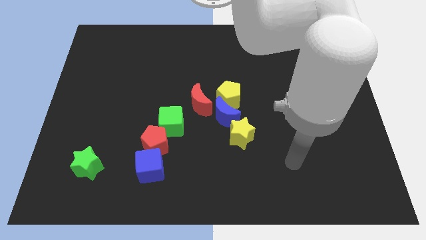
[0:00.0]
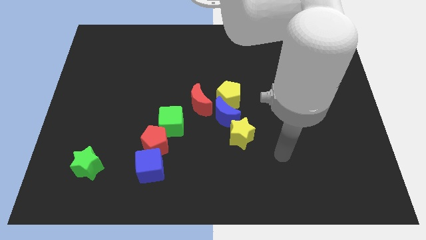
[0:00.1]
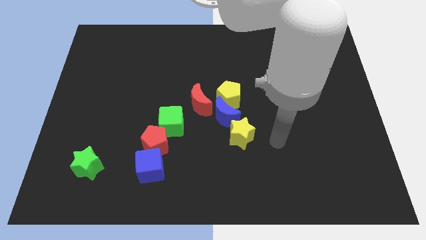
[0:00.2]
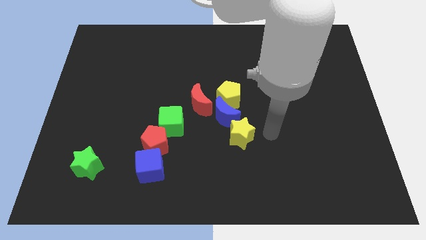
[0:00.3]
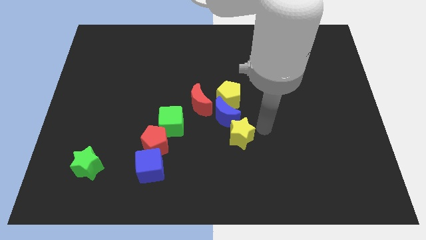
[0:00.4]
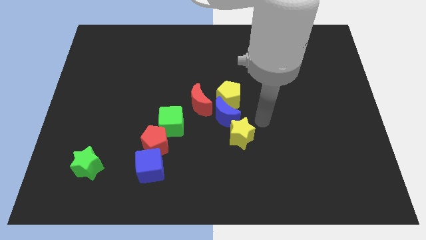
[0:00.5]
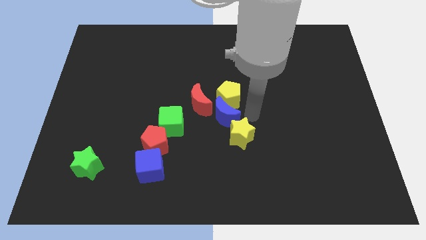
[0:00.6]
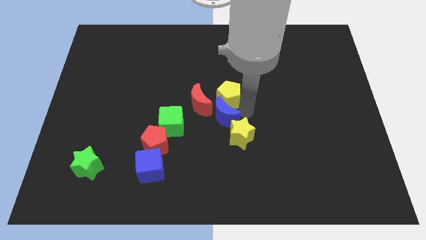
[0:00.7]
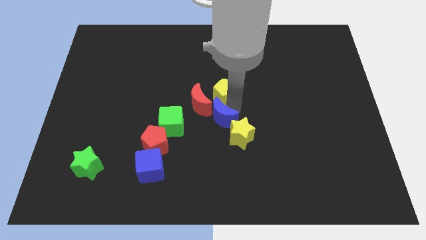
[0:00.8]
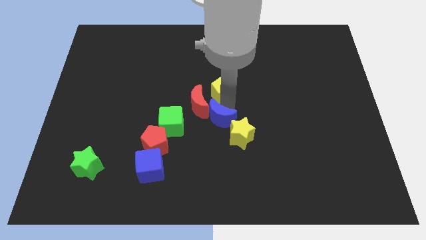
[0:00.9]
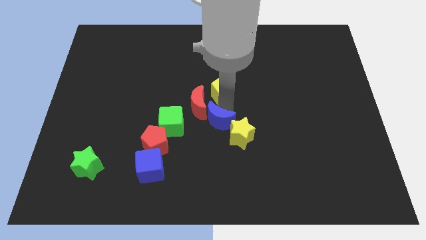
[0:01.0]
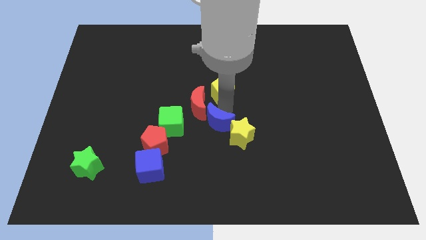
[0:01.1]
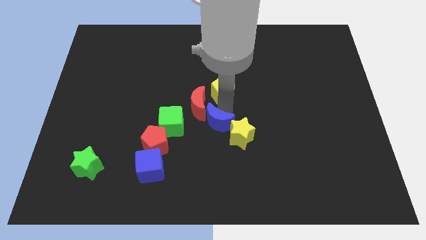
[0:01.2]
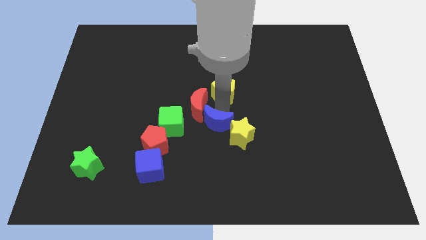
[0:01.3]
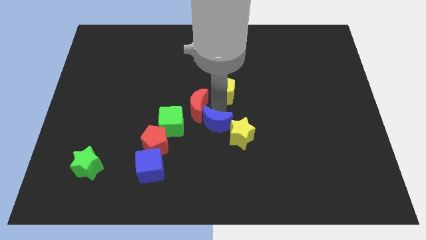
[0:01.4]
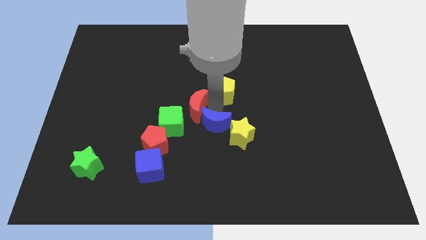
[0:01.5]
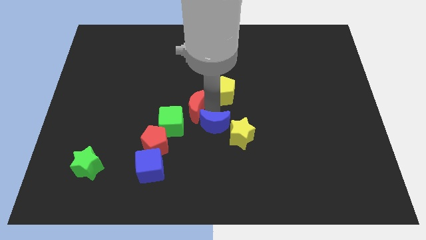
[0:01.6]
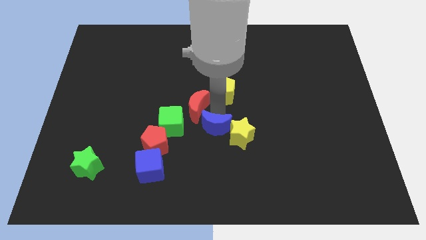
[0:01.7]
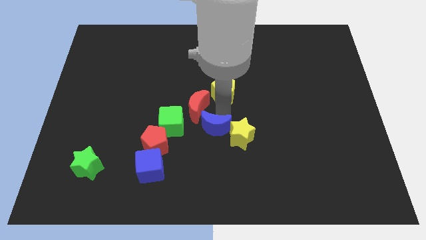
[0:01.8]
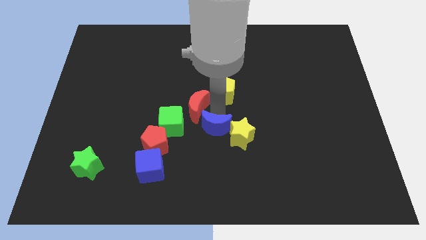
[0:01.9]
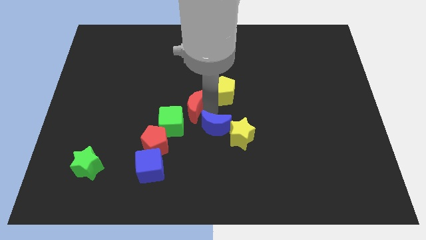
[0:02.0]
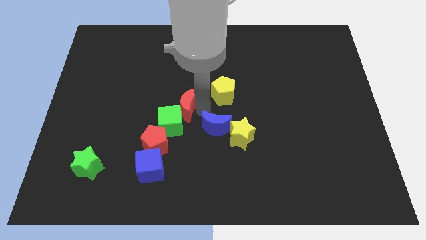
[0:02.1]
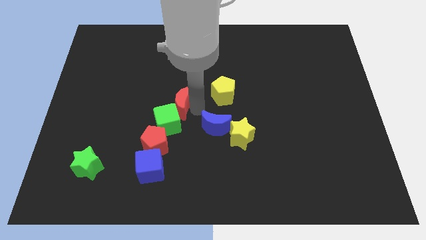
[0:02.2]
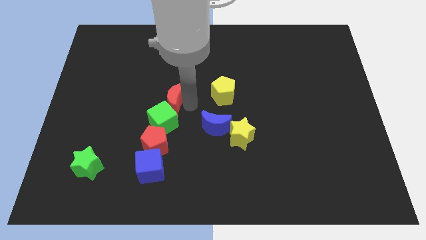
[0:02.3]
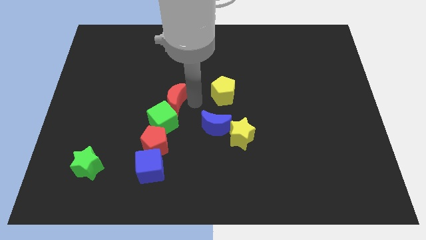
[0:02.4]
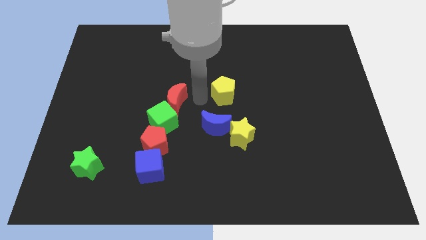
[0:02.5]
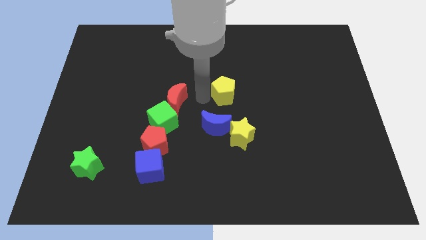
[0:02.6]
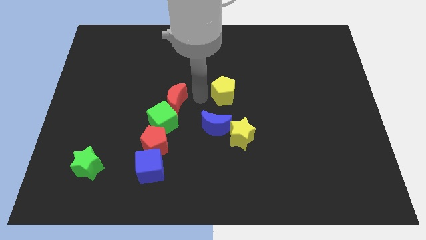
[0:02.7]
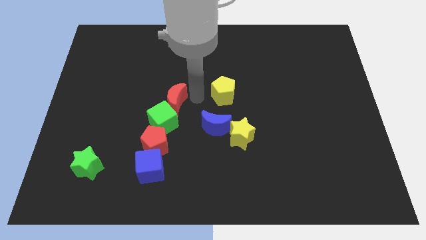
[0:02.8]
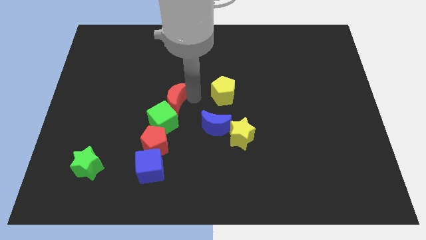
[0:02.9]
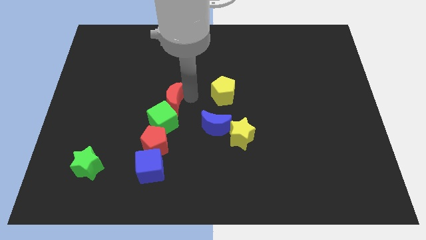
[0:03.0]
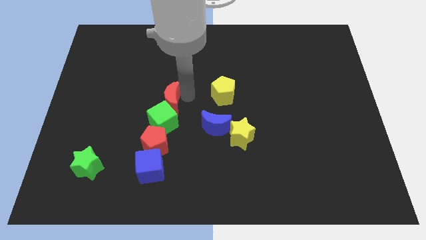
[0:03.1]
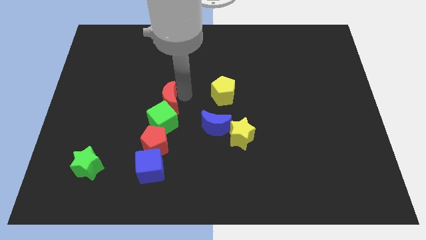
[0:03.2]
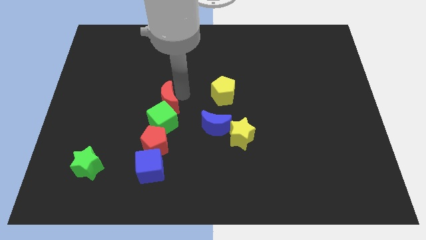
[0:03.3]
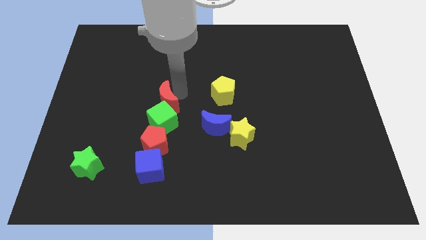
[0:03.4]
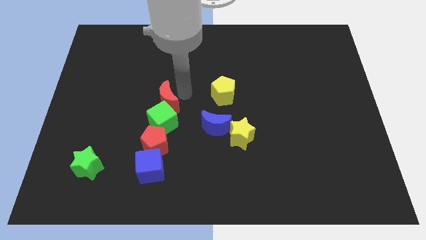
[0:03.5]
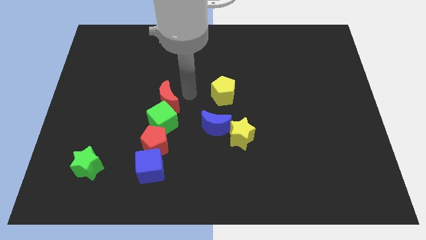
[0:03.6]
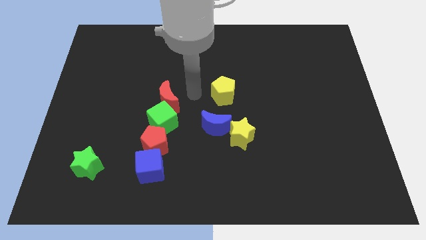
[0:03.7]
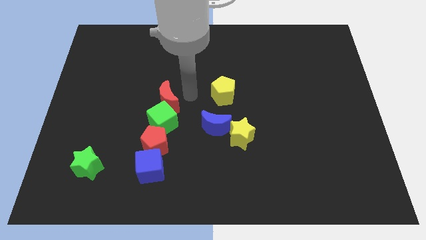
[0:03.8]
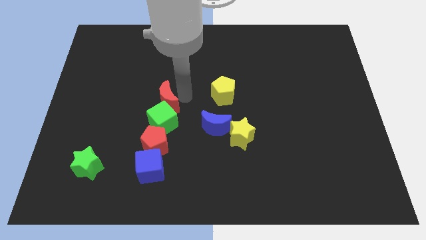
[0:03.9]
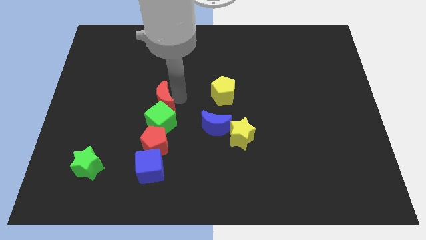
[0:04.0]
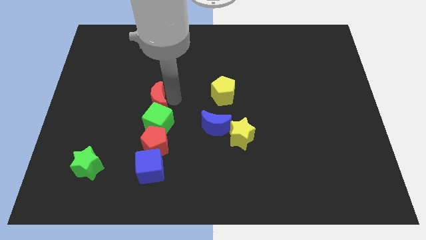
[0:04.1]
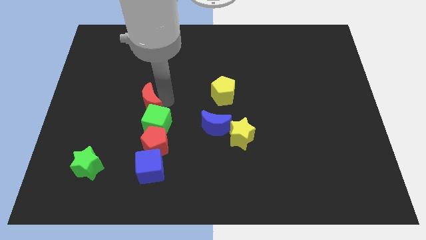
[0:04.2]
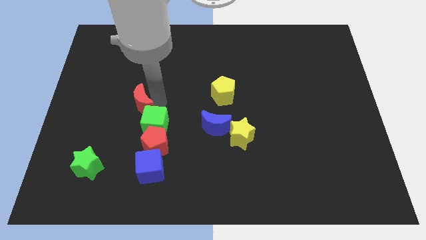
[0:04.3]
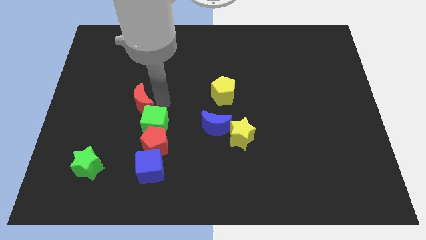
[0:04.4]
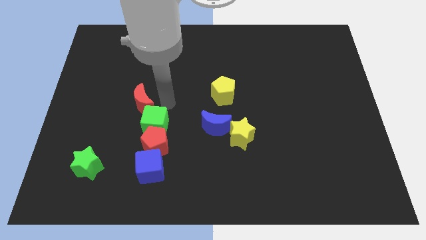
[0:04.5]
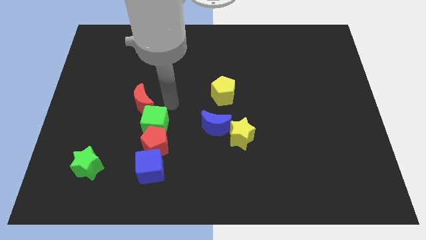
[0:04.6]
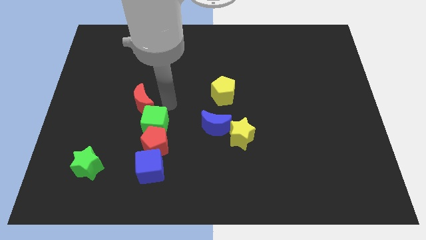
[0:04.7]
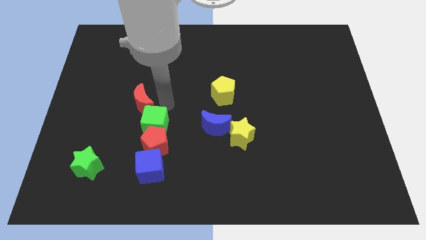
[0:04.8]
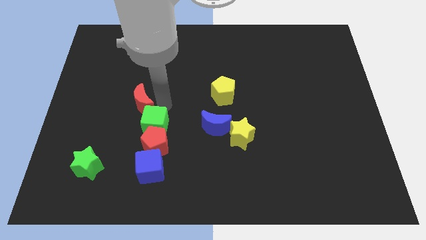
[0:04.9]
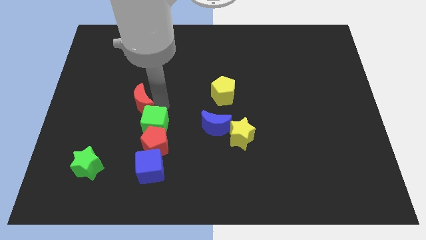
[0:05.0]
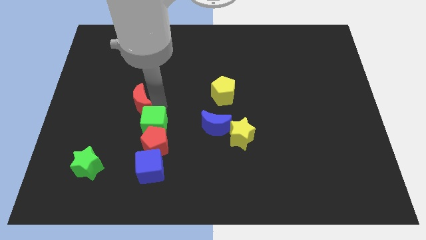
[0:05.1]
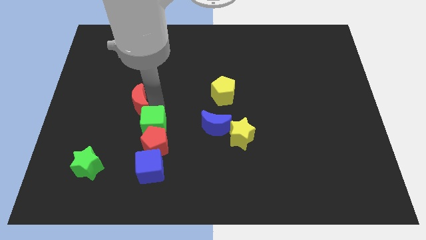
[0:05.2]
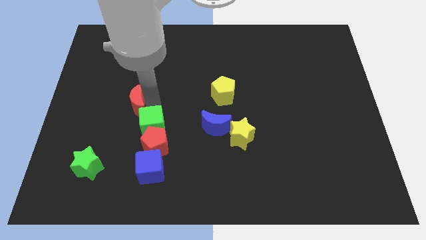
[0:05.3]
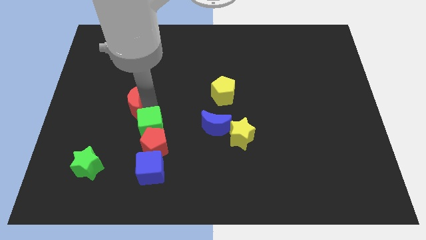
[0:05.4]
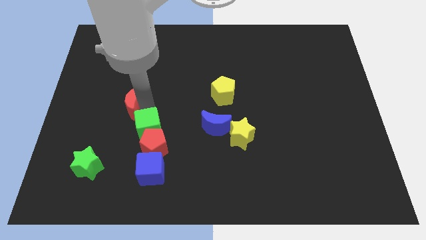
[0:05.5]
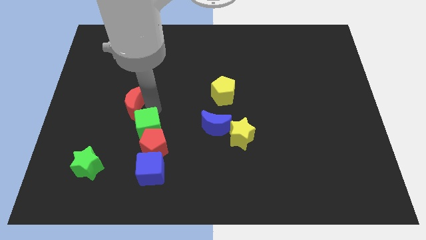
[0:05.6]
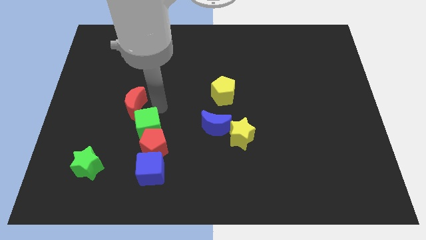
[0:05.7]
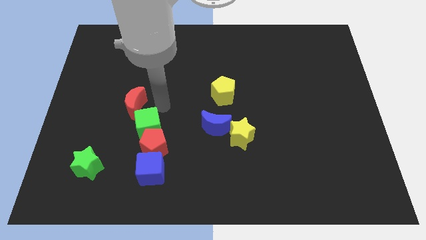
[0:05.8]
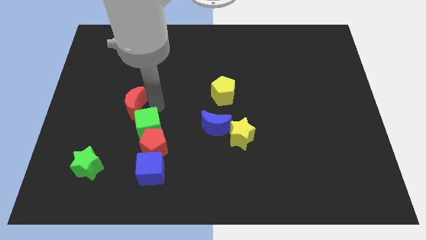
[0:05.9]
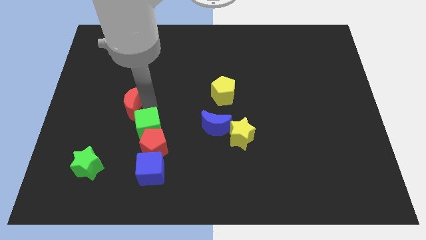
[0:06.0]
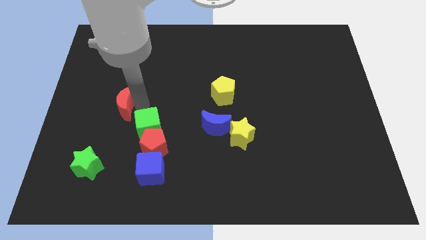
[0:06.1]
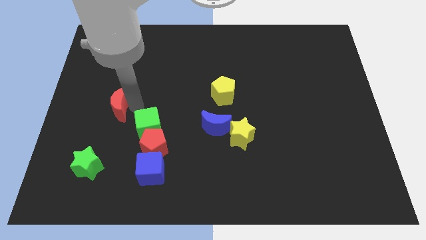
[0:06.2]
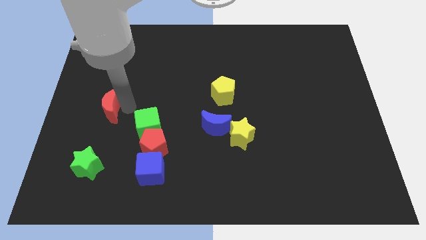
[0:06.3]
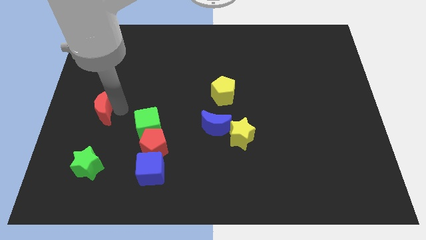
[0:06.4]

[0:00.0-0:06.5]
push the red moon to the center left

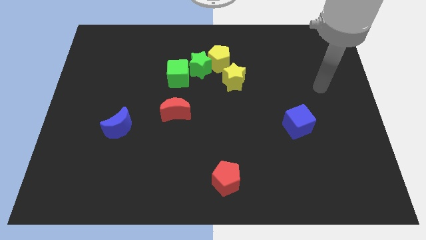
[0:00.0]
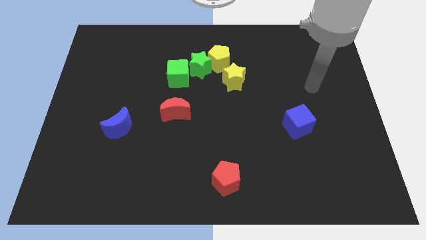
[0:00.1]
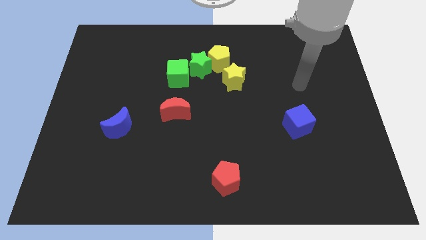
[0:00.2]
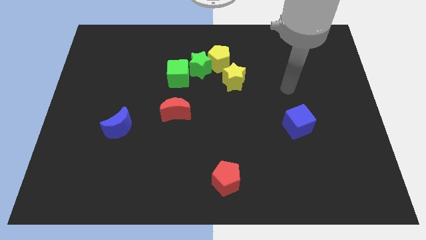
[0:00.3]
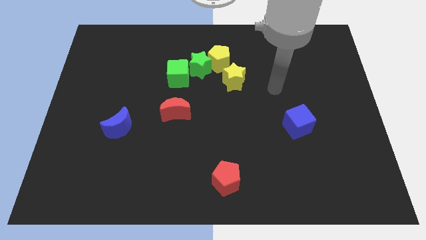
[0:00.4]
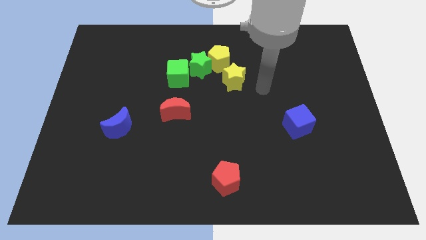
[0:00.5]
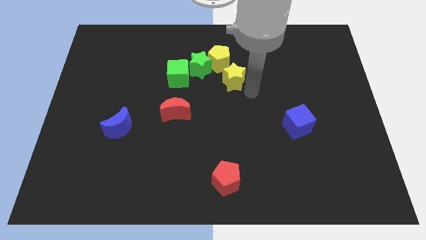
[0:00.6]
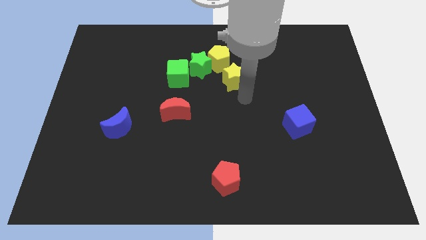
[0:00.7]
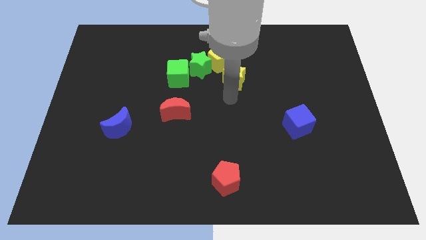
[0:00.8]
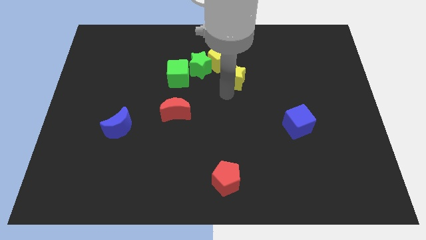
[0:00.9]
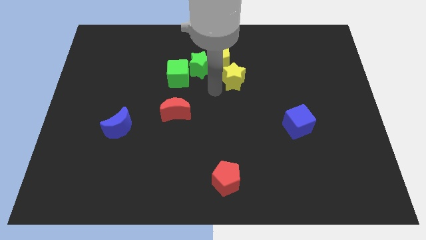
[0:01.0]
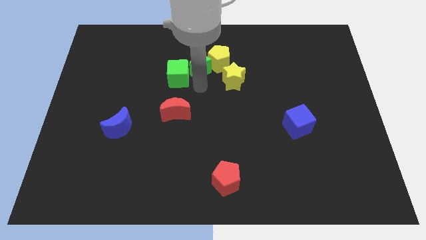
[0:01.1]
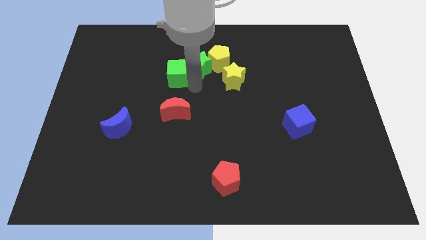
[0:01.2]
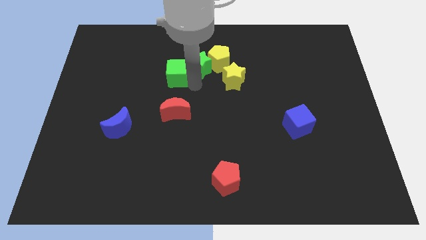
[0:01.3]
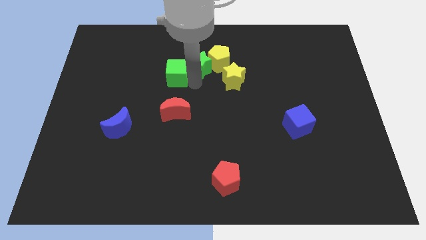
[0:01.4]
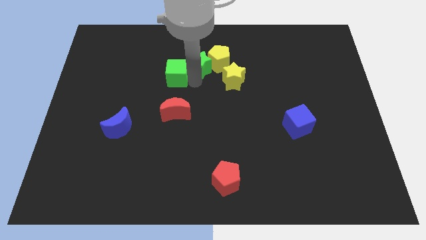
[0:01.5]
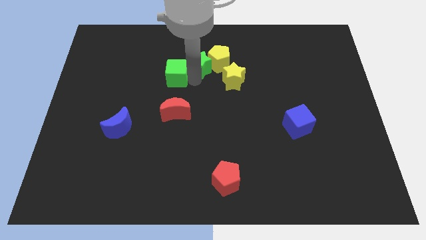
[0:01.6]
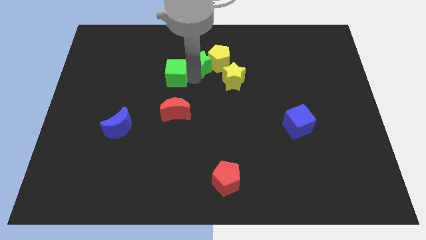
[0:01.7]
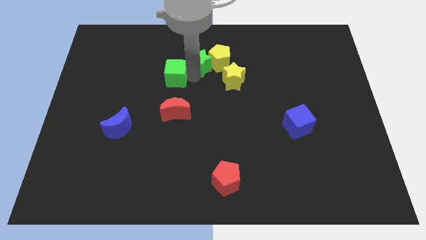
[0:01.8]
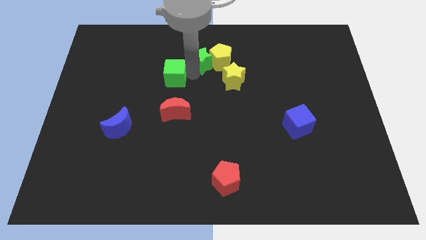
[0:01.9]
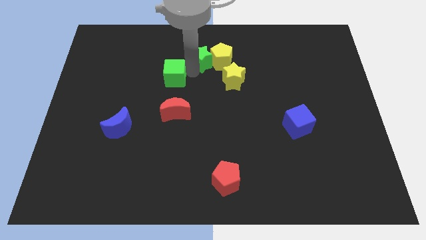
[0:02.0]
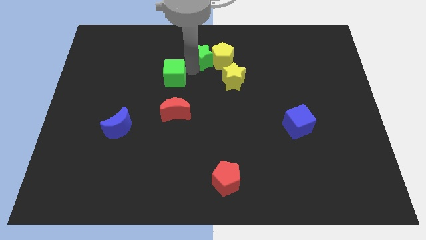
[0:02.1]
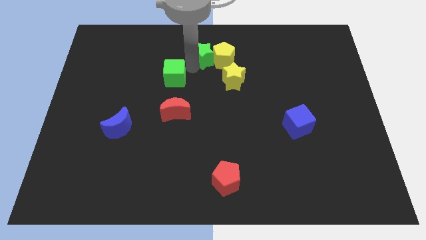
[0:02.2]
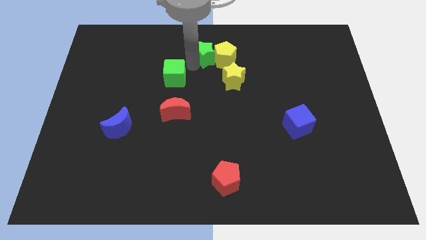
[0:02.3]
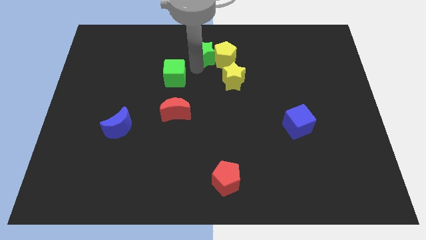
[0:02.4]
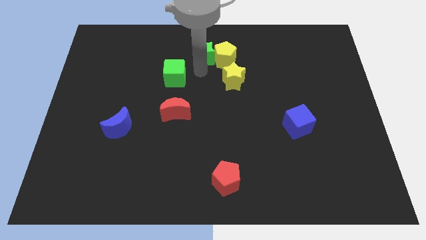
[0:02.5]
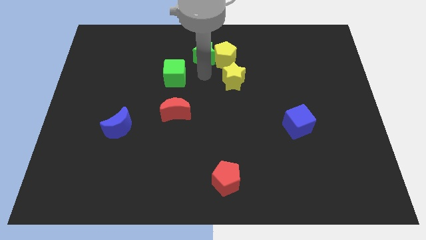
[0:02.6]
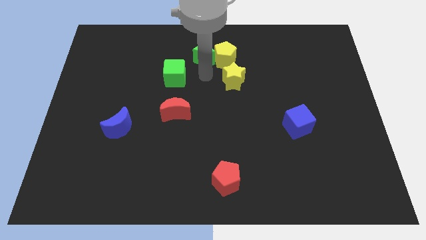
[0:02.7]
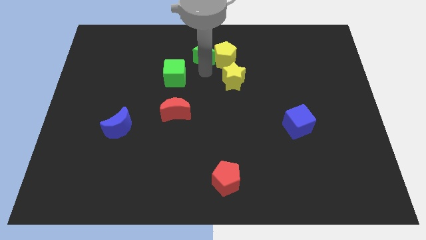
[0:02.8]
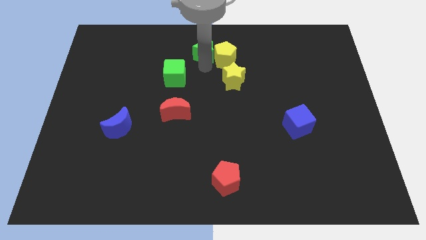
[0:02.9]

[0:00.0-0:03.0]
put the green star to the towards your base
